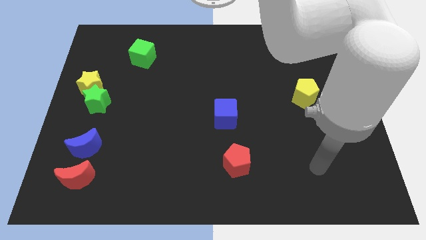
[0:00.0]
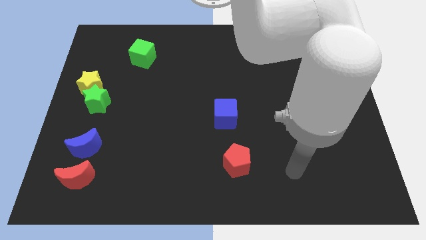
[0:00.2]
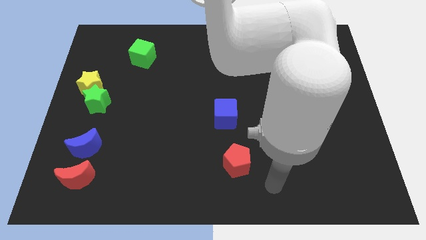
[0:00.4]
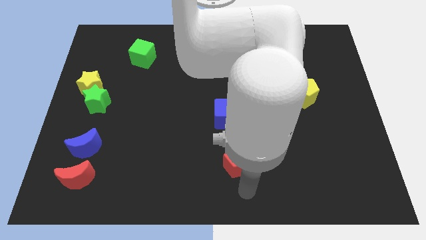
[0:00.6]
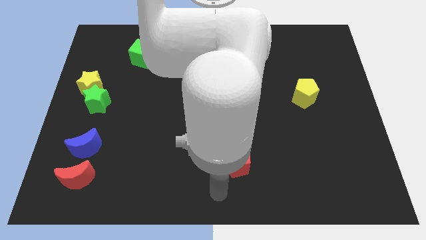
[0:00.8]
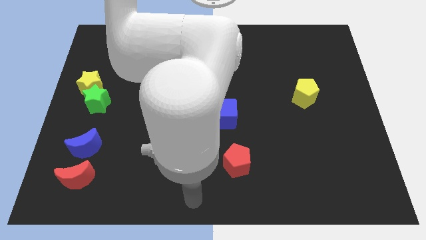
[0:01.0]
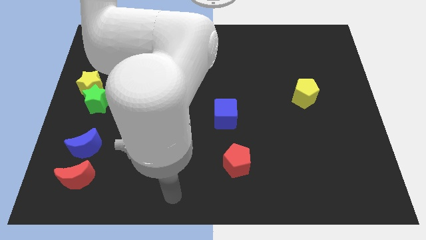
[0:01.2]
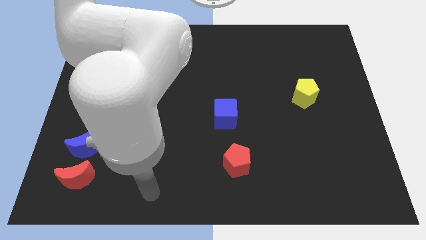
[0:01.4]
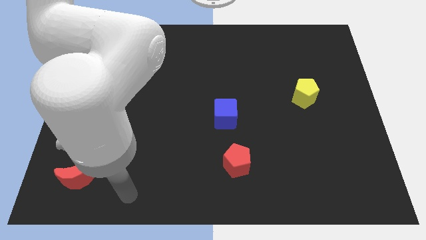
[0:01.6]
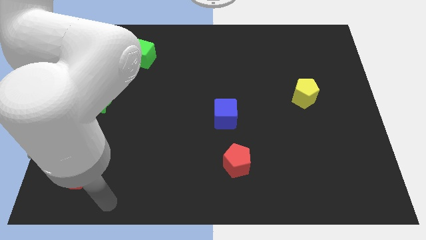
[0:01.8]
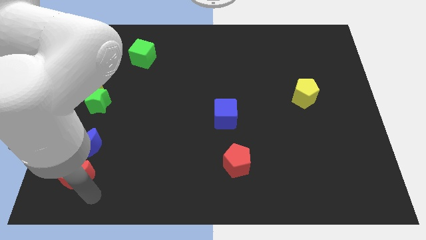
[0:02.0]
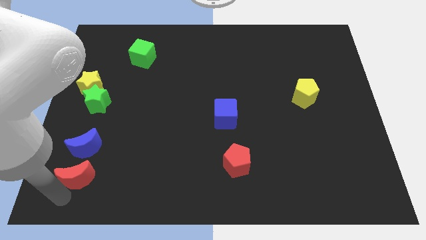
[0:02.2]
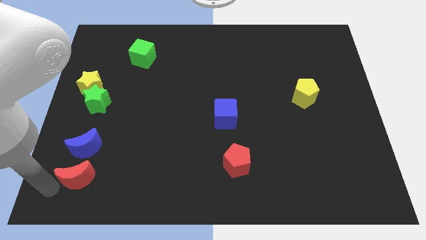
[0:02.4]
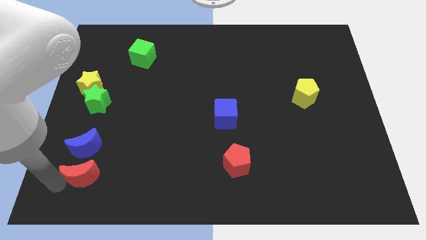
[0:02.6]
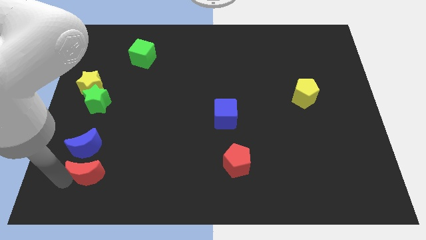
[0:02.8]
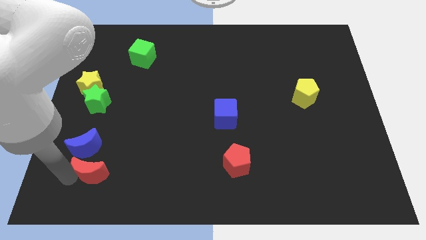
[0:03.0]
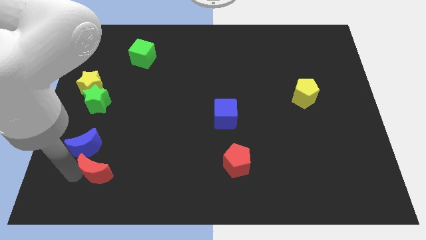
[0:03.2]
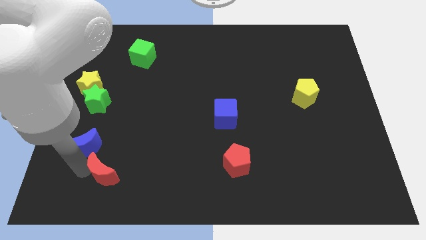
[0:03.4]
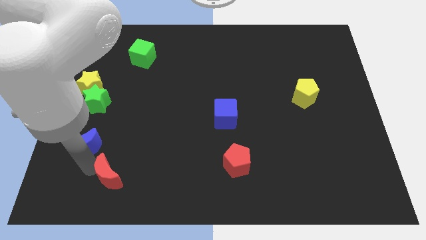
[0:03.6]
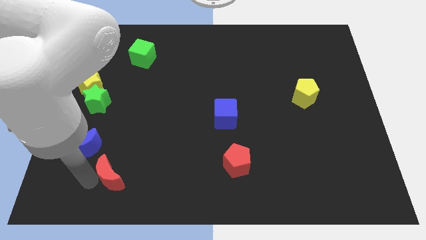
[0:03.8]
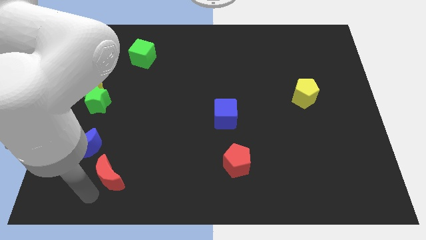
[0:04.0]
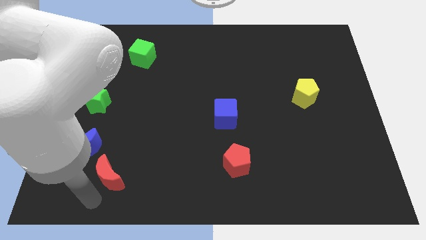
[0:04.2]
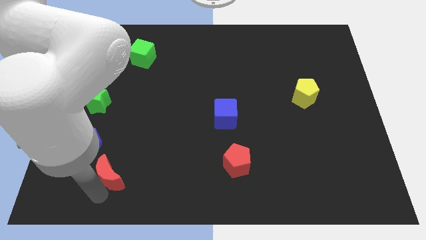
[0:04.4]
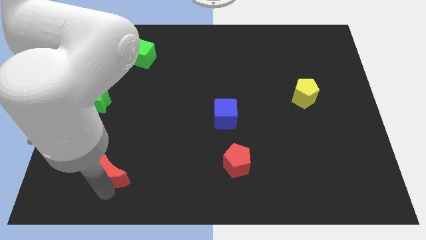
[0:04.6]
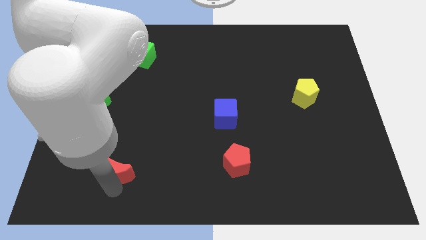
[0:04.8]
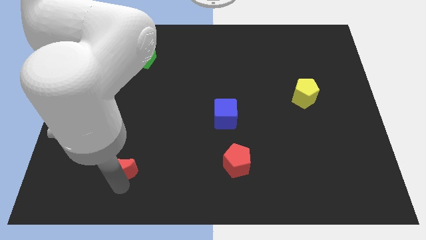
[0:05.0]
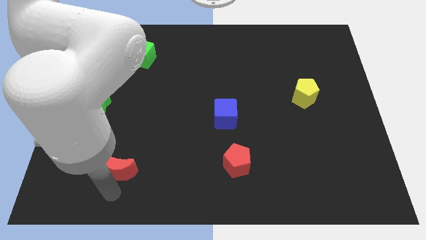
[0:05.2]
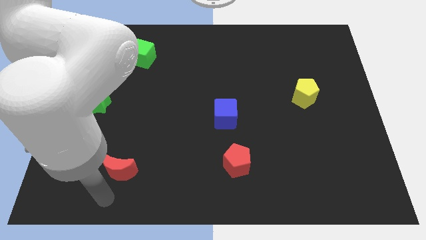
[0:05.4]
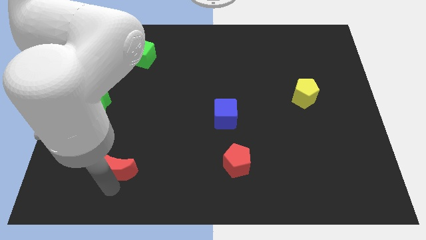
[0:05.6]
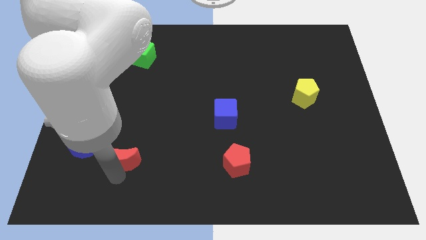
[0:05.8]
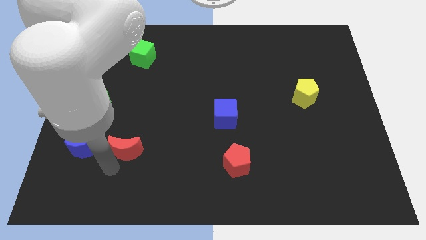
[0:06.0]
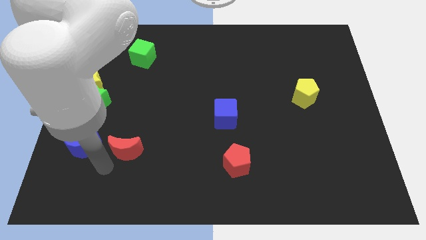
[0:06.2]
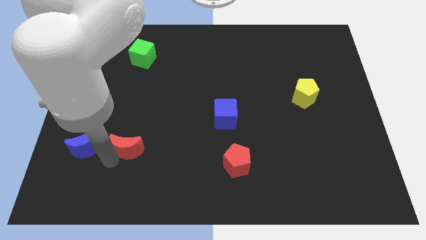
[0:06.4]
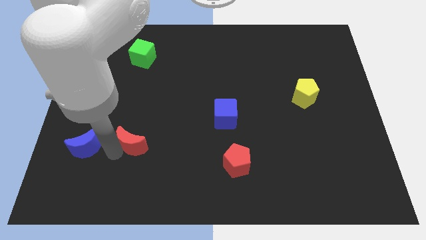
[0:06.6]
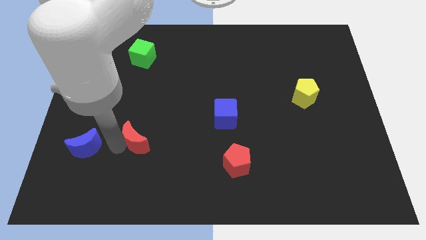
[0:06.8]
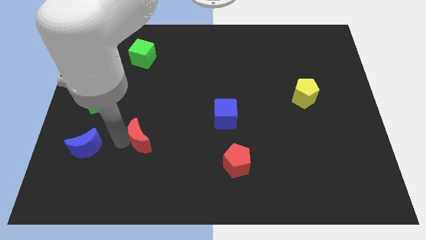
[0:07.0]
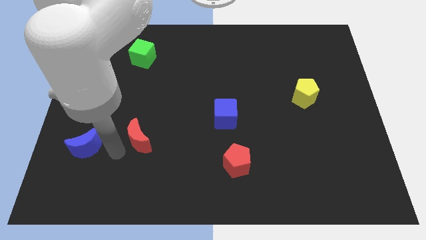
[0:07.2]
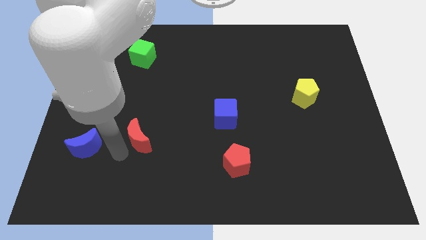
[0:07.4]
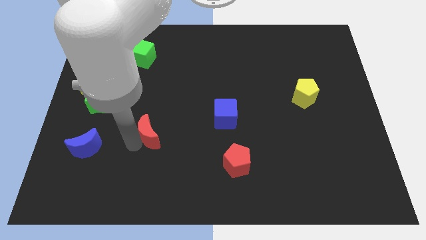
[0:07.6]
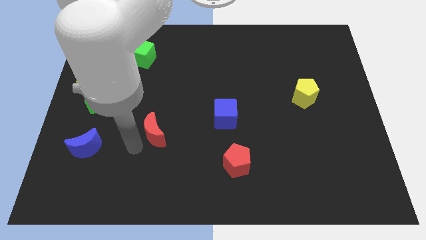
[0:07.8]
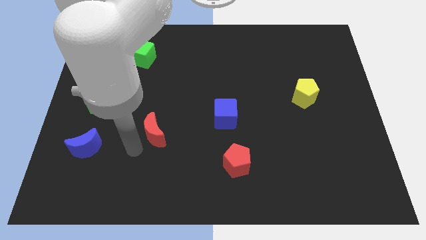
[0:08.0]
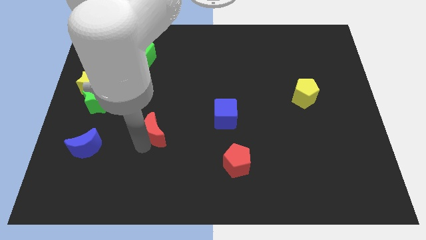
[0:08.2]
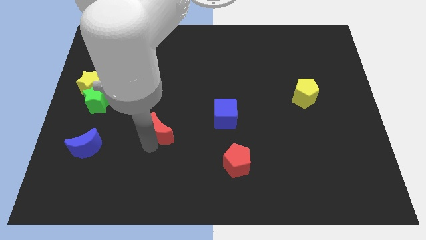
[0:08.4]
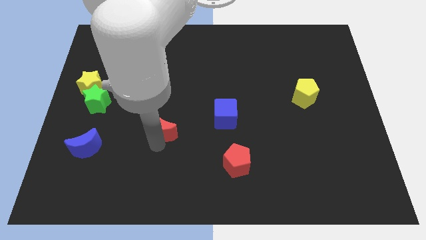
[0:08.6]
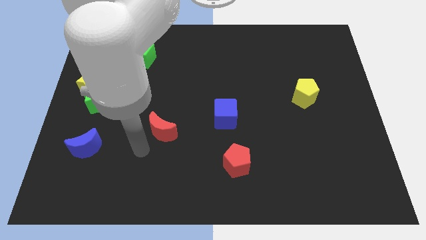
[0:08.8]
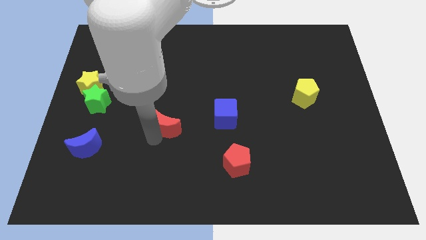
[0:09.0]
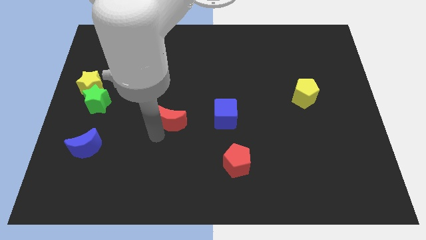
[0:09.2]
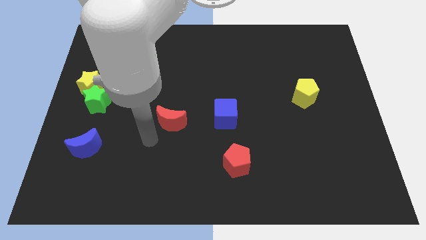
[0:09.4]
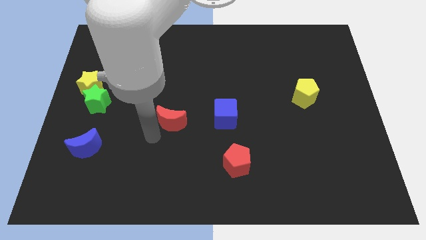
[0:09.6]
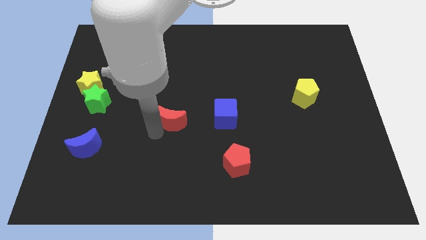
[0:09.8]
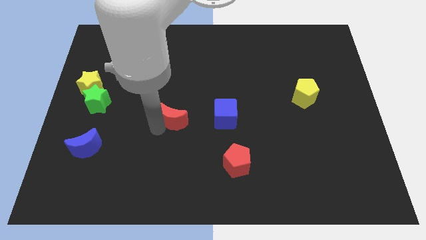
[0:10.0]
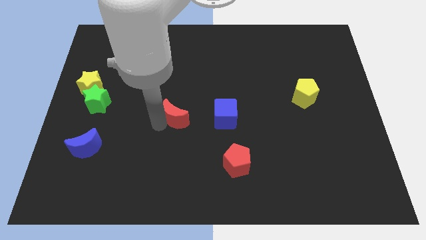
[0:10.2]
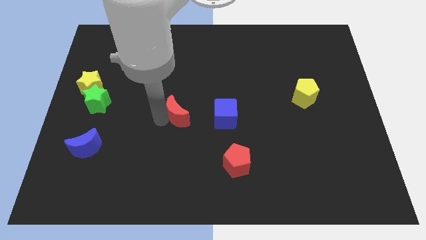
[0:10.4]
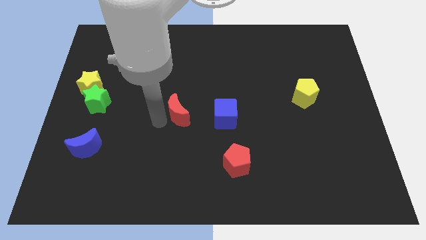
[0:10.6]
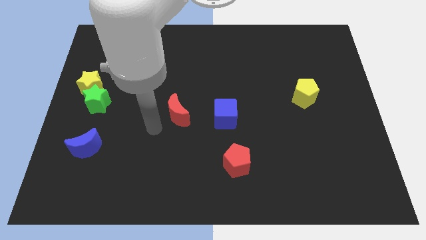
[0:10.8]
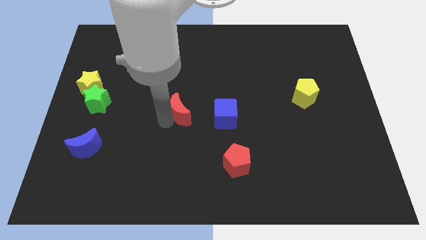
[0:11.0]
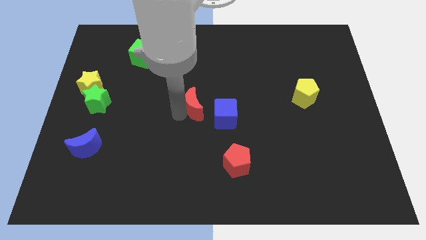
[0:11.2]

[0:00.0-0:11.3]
push the red moon to the top left of the blue cube

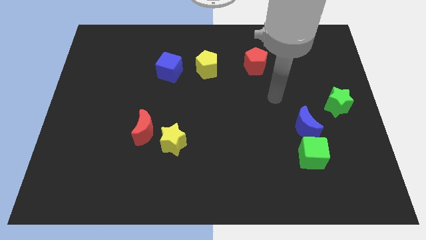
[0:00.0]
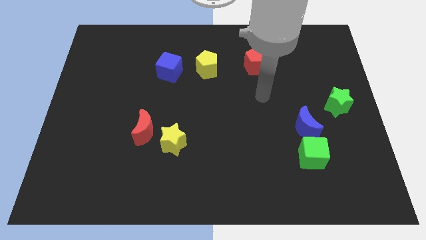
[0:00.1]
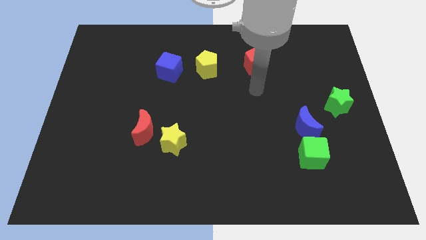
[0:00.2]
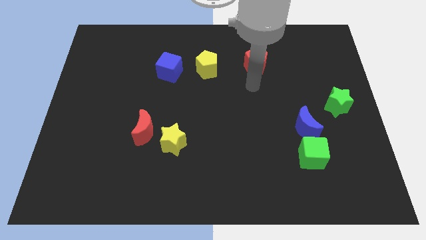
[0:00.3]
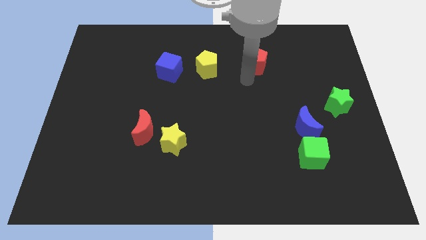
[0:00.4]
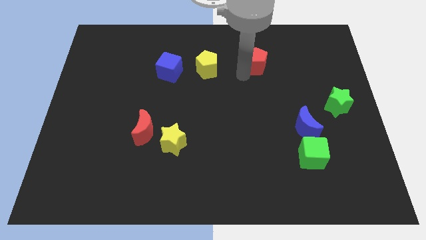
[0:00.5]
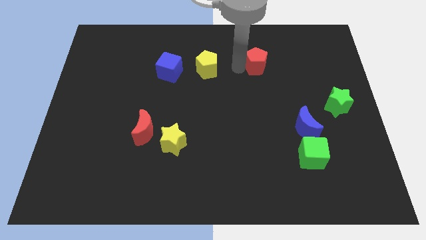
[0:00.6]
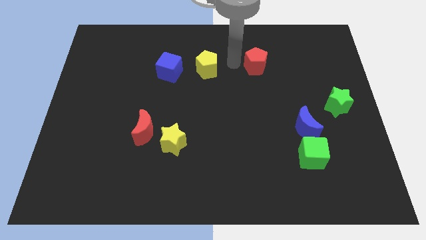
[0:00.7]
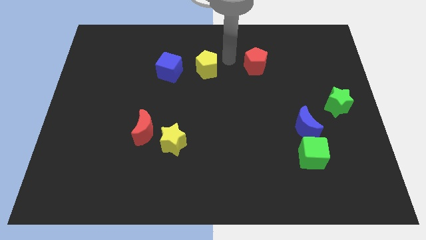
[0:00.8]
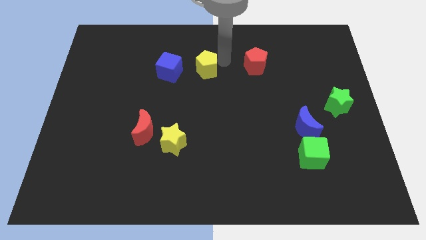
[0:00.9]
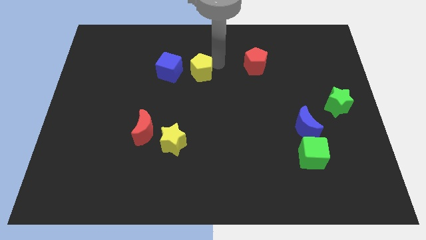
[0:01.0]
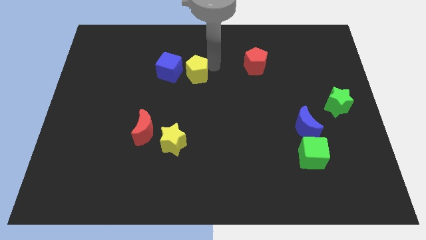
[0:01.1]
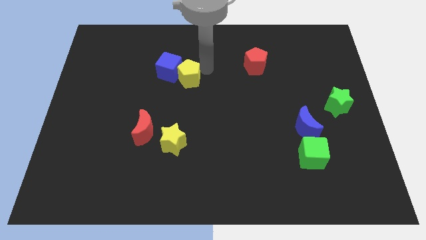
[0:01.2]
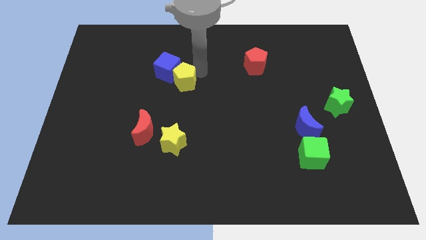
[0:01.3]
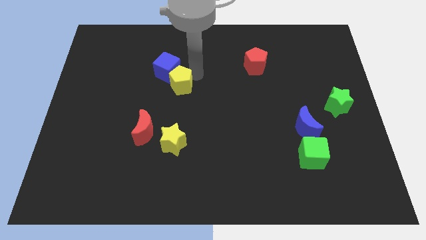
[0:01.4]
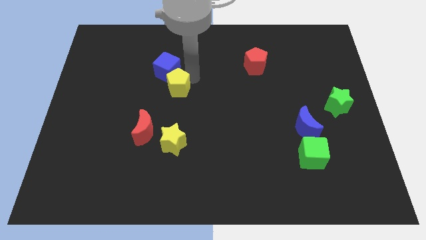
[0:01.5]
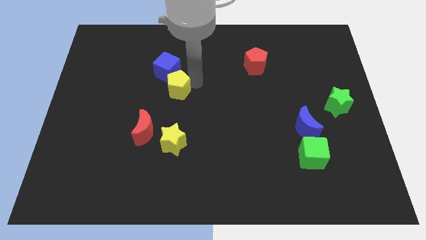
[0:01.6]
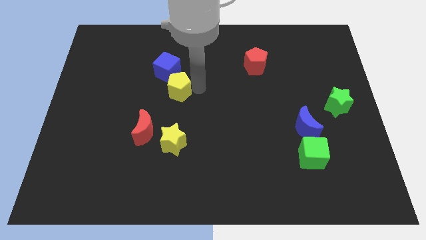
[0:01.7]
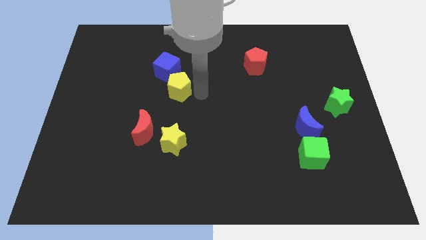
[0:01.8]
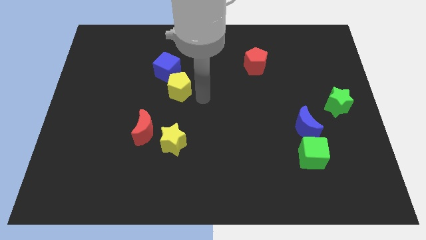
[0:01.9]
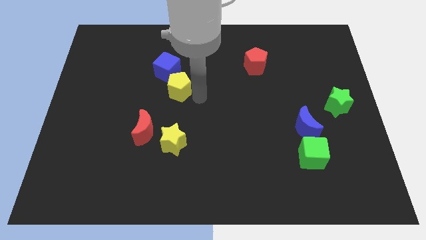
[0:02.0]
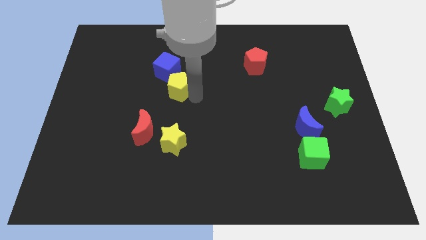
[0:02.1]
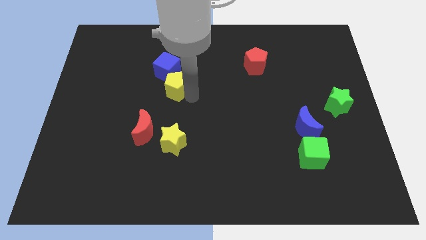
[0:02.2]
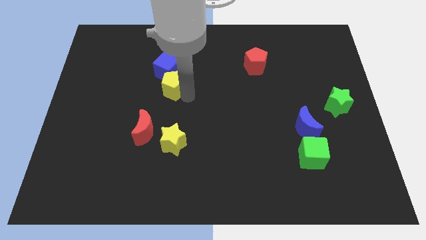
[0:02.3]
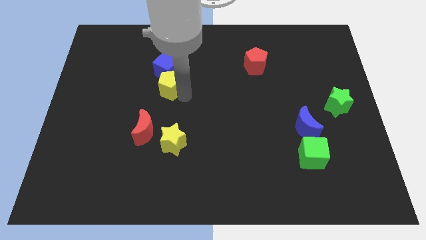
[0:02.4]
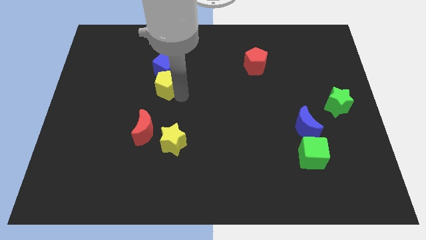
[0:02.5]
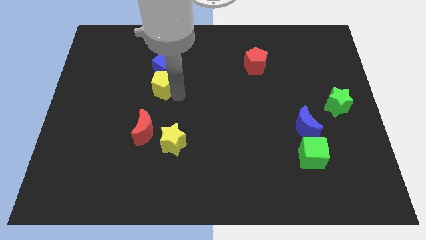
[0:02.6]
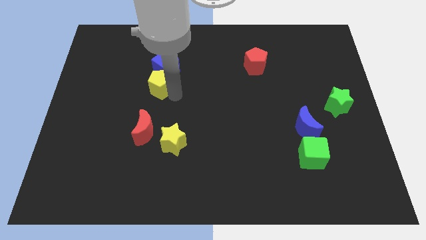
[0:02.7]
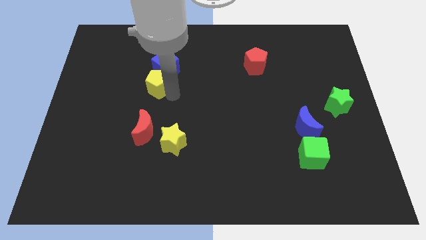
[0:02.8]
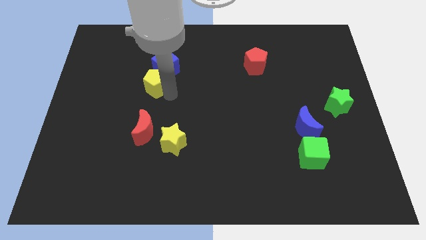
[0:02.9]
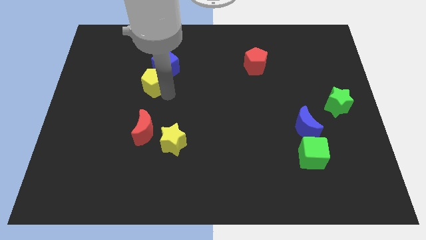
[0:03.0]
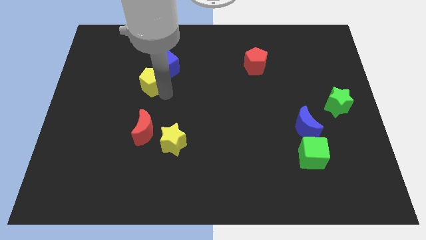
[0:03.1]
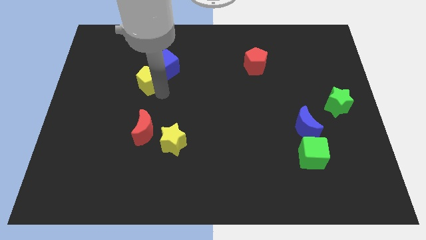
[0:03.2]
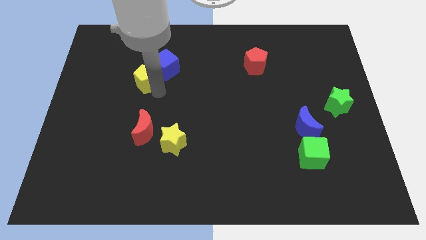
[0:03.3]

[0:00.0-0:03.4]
slide the yellow pentagon left of the blue cube
